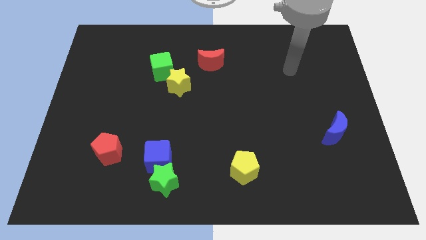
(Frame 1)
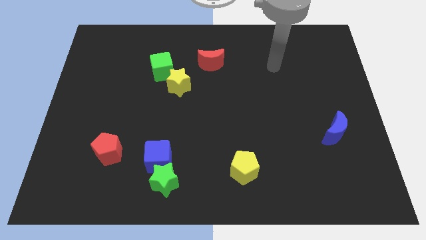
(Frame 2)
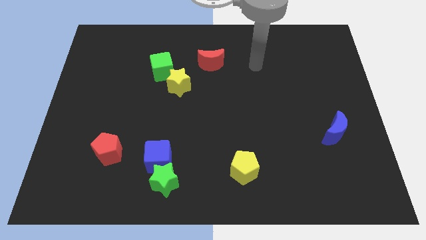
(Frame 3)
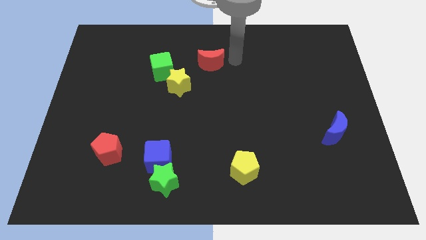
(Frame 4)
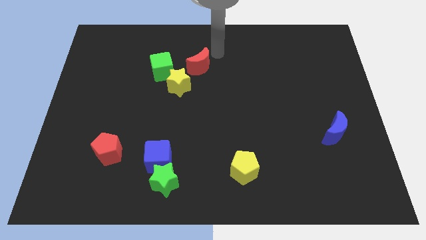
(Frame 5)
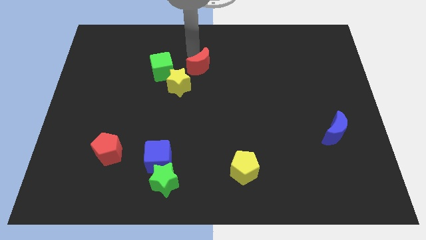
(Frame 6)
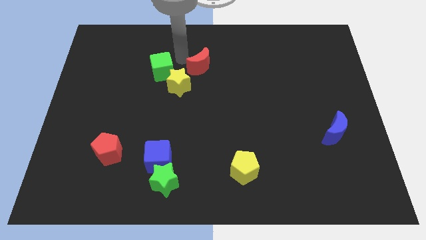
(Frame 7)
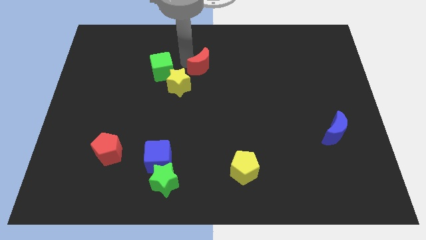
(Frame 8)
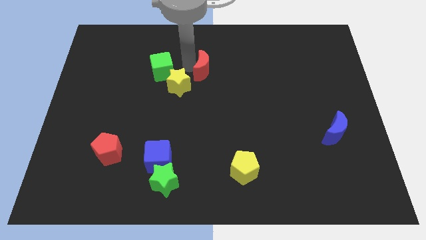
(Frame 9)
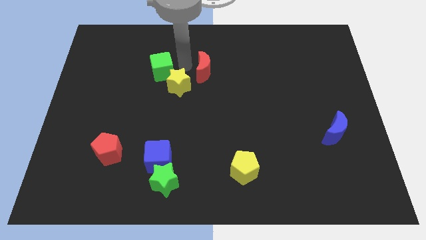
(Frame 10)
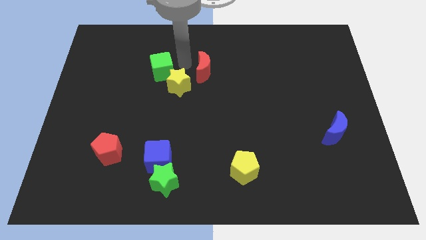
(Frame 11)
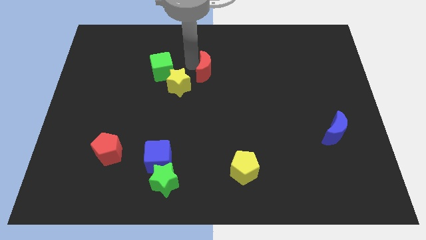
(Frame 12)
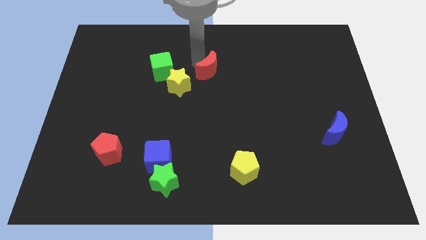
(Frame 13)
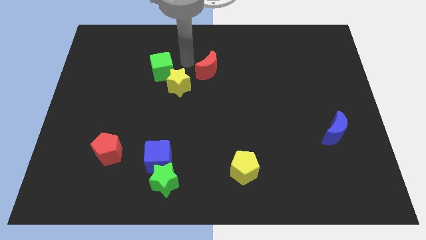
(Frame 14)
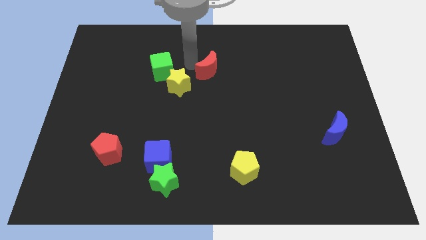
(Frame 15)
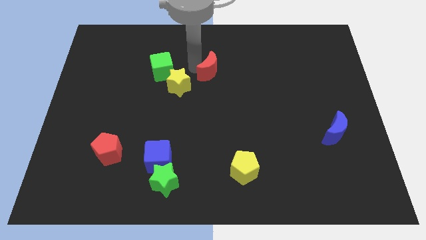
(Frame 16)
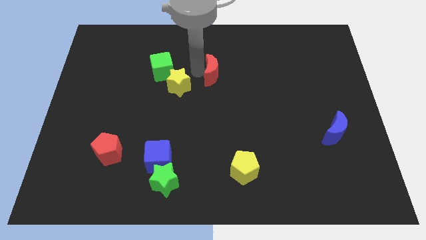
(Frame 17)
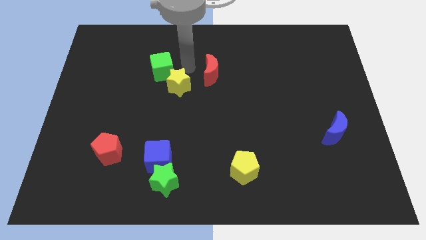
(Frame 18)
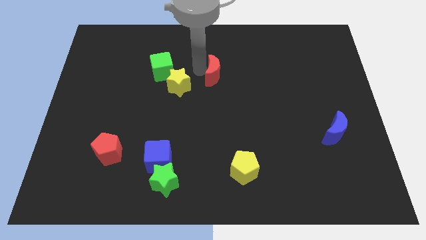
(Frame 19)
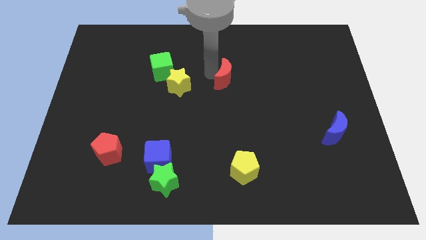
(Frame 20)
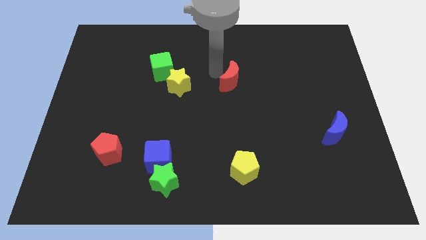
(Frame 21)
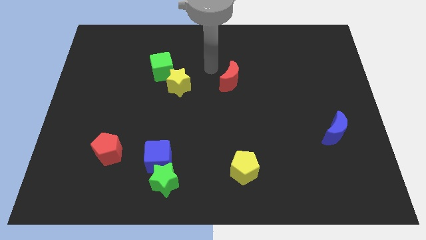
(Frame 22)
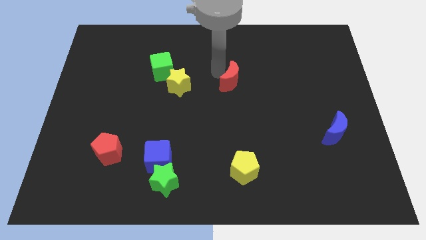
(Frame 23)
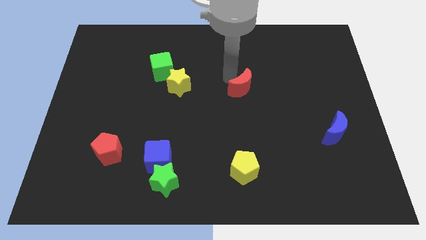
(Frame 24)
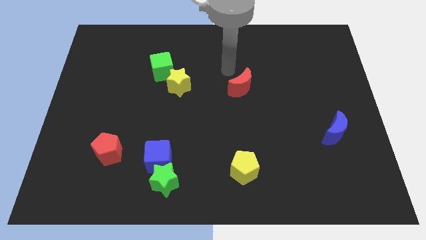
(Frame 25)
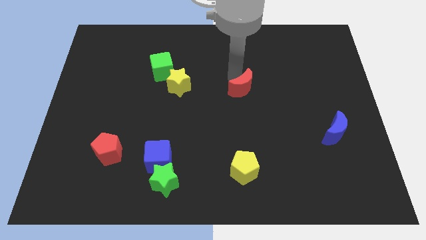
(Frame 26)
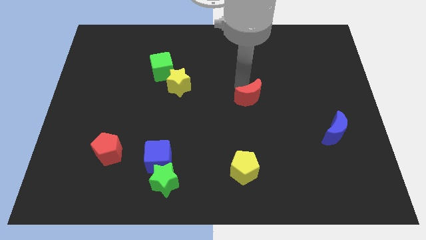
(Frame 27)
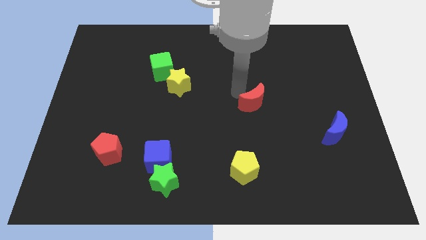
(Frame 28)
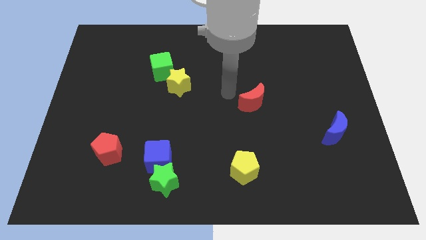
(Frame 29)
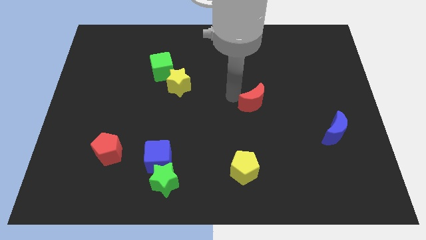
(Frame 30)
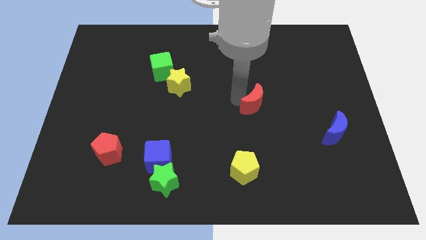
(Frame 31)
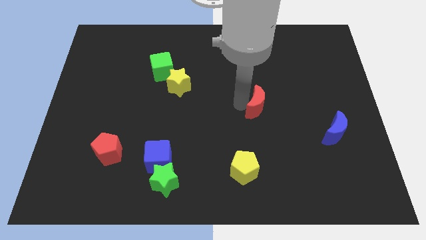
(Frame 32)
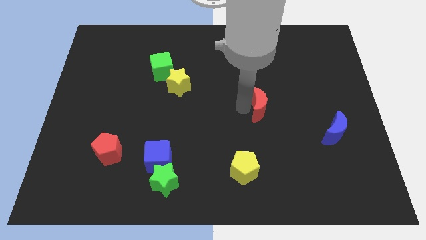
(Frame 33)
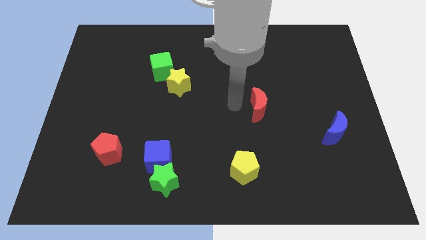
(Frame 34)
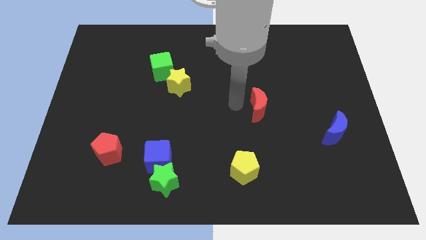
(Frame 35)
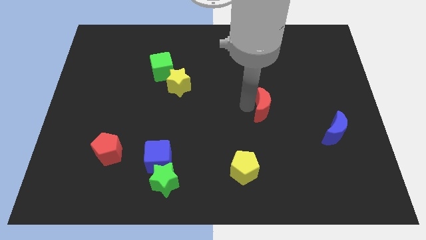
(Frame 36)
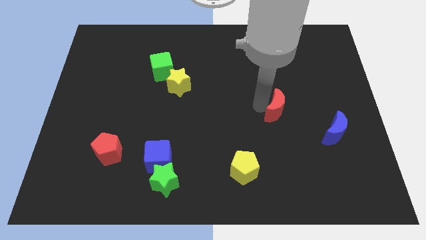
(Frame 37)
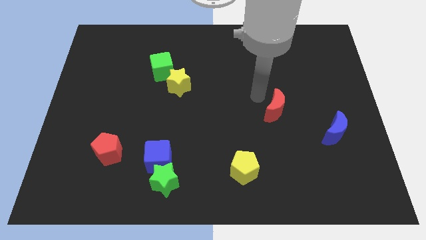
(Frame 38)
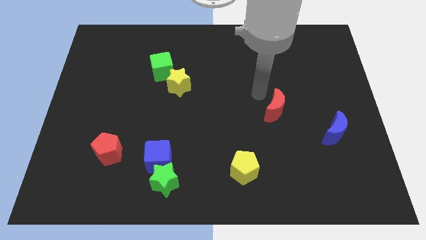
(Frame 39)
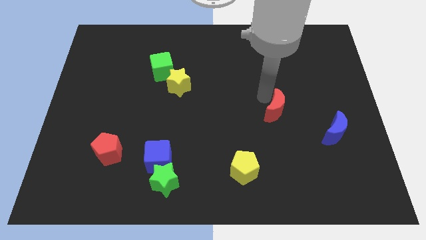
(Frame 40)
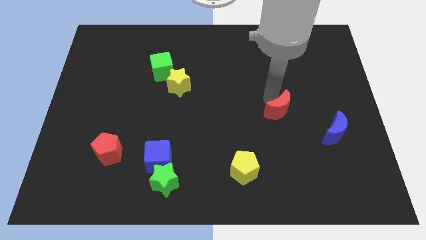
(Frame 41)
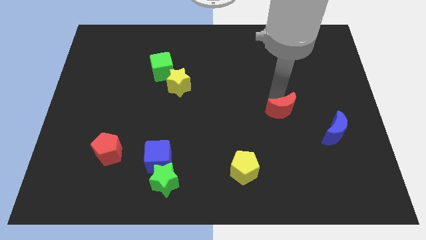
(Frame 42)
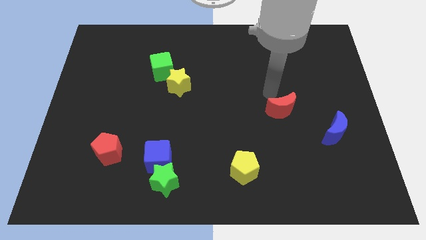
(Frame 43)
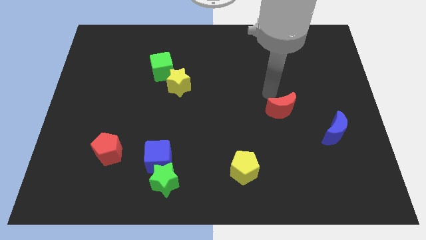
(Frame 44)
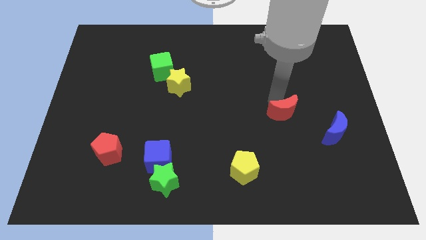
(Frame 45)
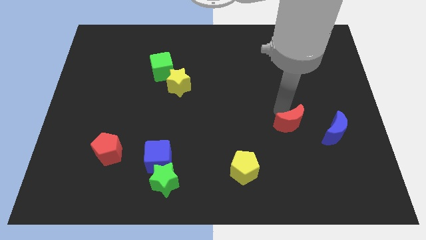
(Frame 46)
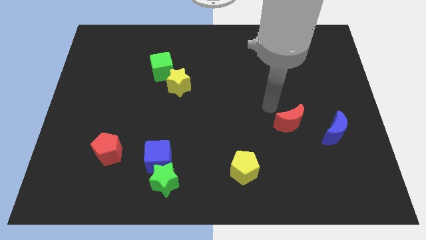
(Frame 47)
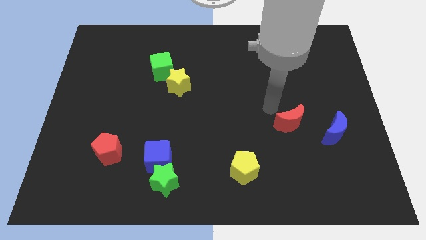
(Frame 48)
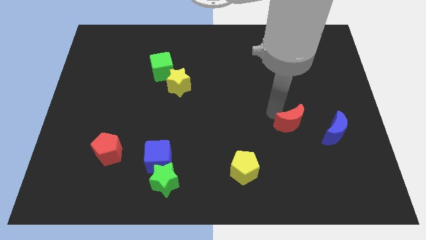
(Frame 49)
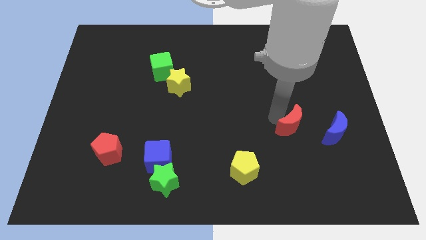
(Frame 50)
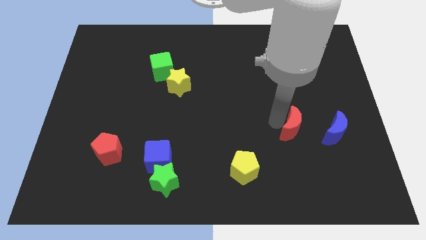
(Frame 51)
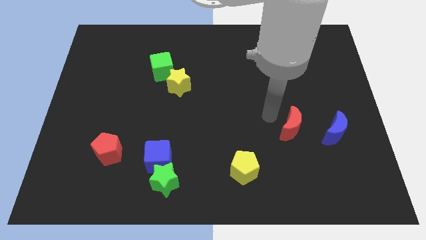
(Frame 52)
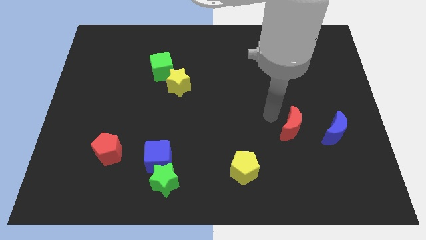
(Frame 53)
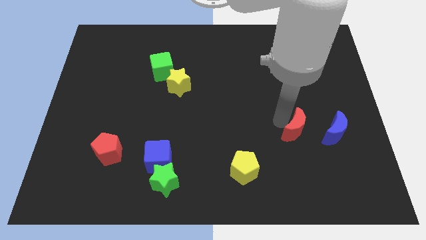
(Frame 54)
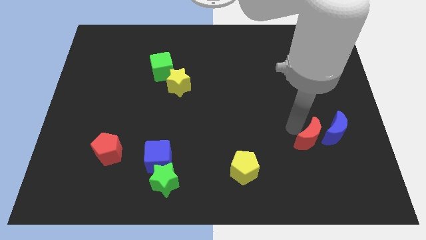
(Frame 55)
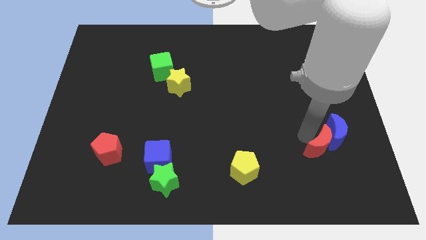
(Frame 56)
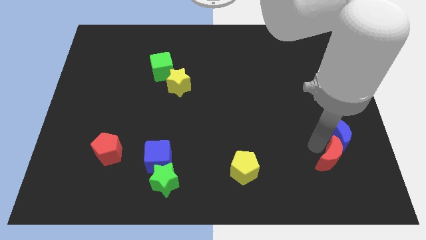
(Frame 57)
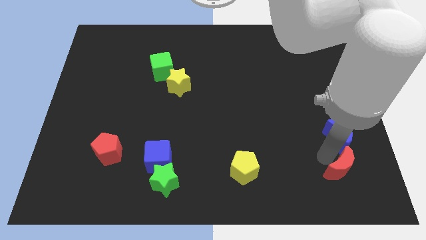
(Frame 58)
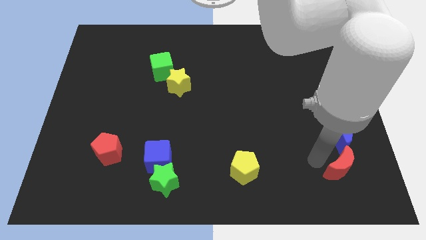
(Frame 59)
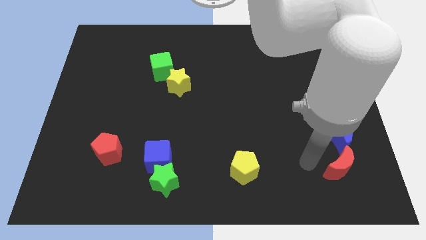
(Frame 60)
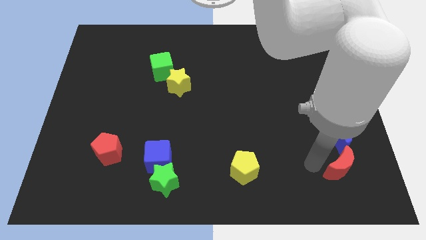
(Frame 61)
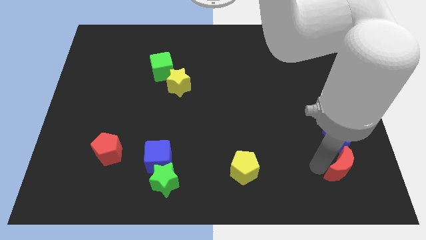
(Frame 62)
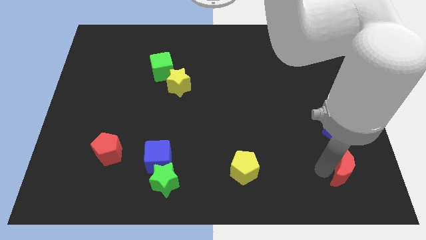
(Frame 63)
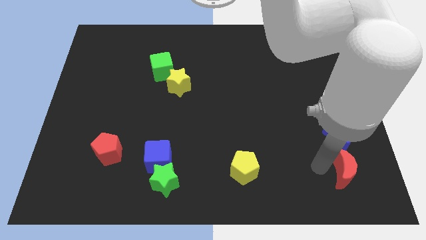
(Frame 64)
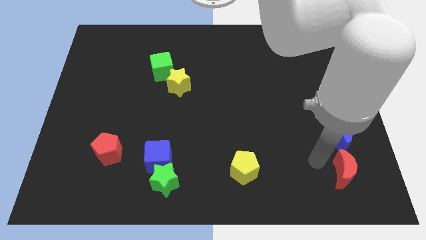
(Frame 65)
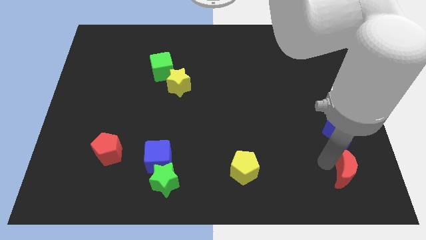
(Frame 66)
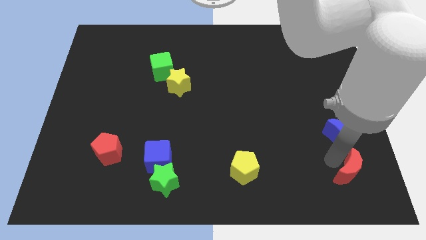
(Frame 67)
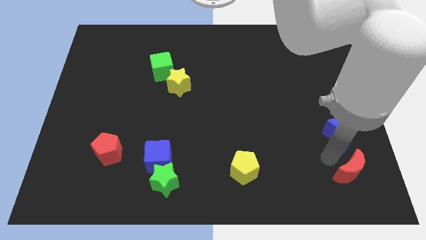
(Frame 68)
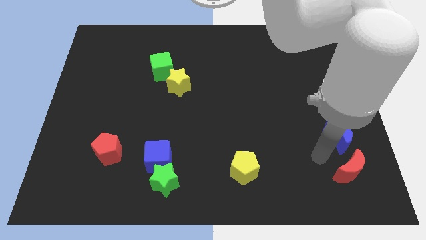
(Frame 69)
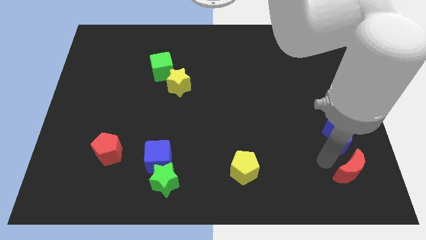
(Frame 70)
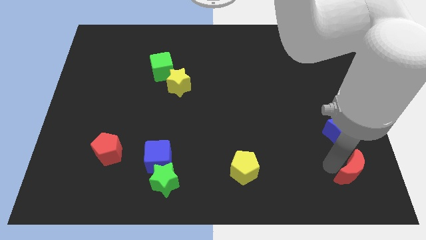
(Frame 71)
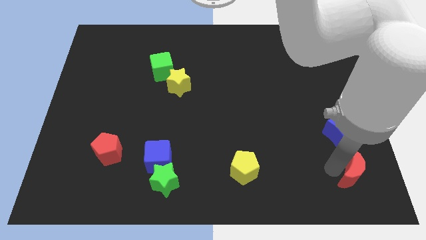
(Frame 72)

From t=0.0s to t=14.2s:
push the red moon to the bottom right of the board
